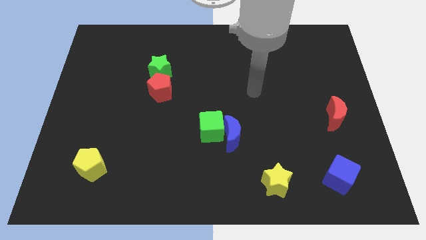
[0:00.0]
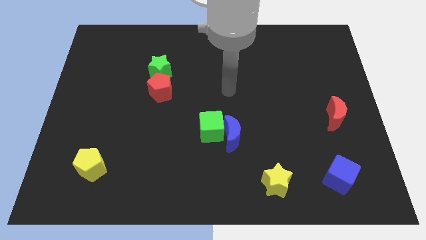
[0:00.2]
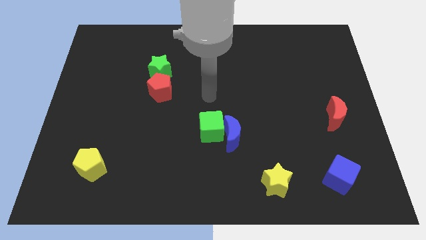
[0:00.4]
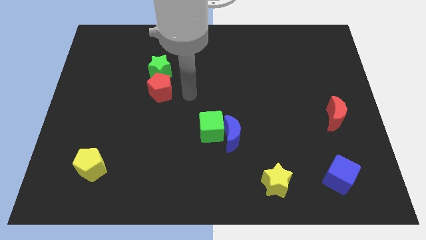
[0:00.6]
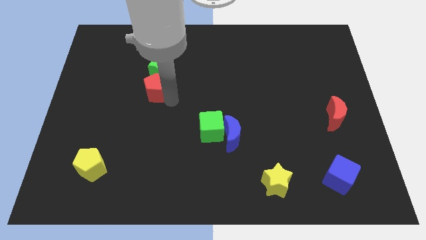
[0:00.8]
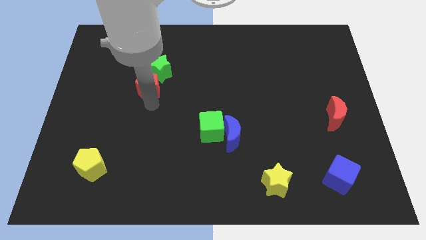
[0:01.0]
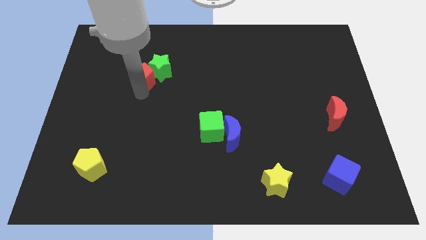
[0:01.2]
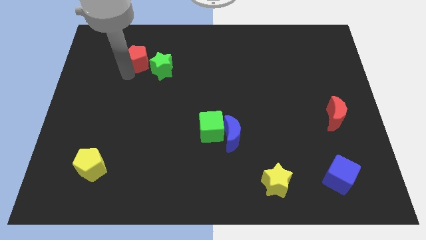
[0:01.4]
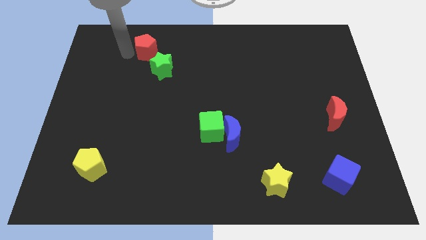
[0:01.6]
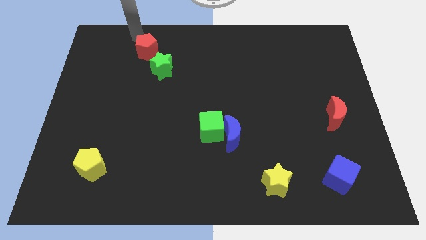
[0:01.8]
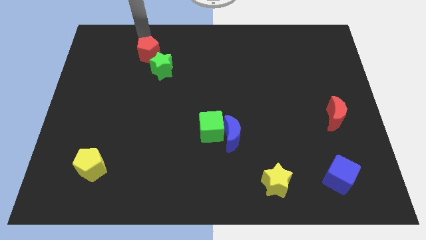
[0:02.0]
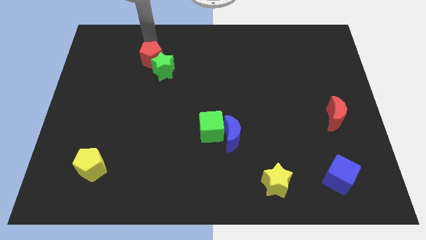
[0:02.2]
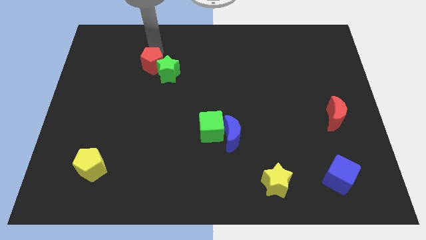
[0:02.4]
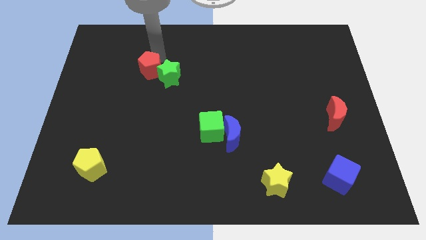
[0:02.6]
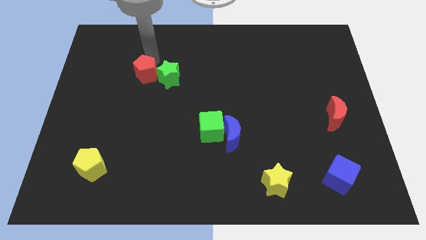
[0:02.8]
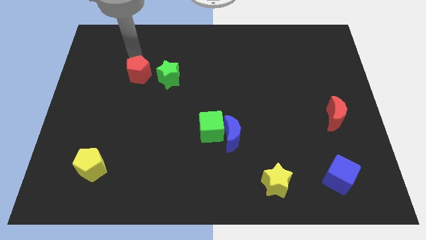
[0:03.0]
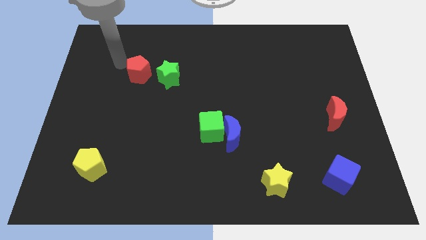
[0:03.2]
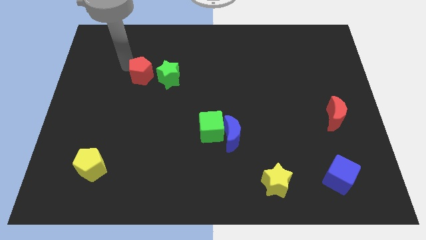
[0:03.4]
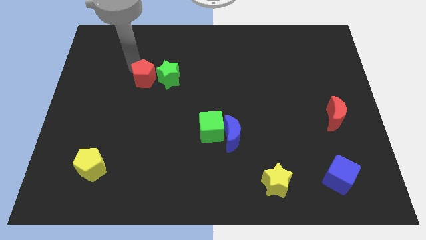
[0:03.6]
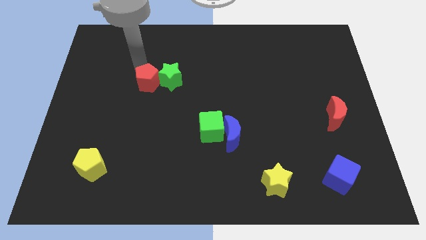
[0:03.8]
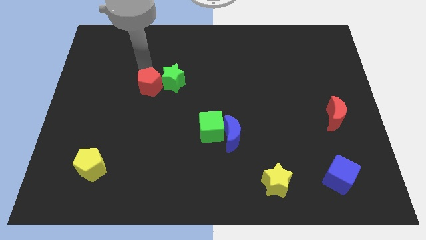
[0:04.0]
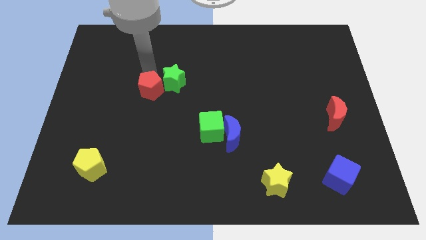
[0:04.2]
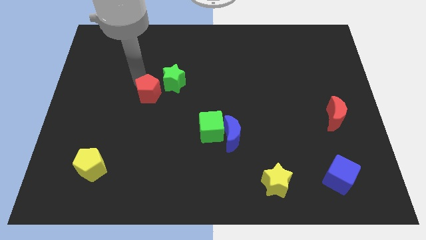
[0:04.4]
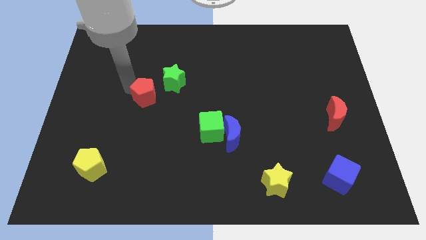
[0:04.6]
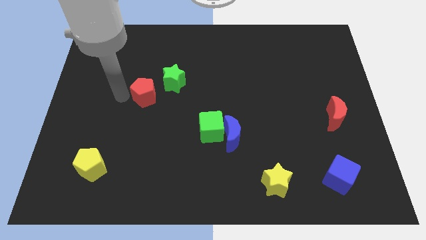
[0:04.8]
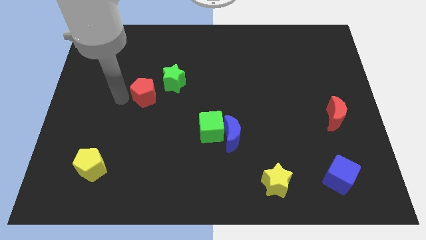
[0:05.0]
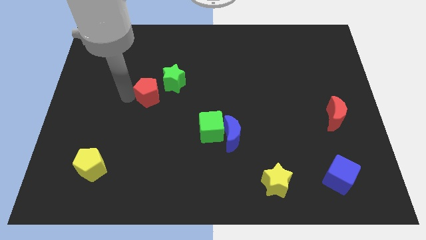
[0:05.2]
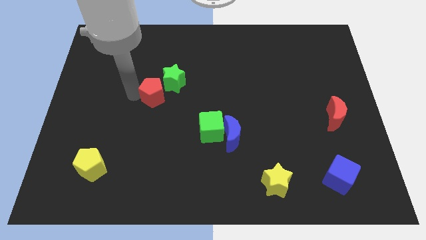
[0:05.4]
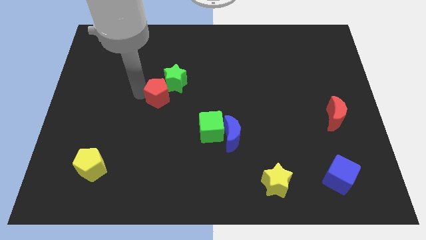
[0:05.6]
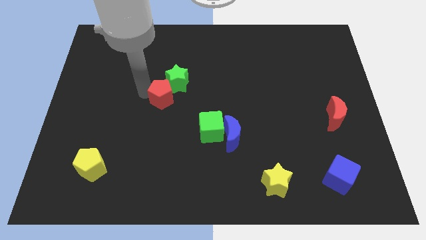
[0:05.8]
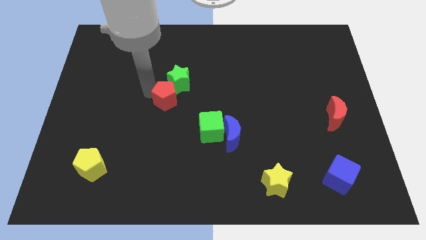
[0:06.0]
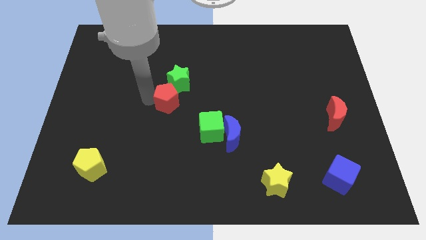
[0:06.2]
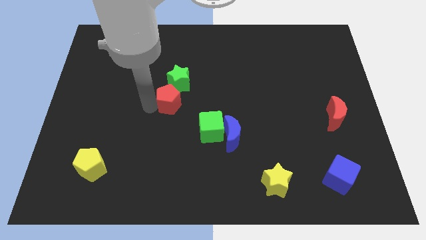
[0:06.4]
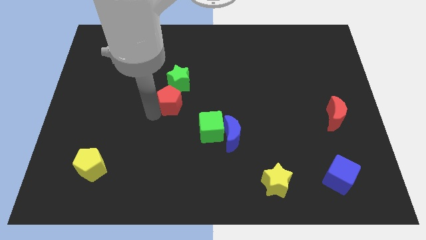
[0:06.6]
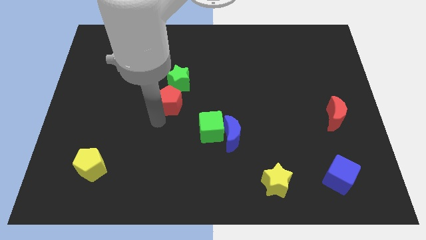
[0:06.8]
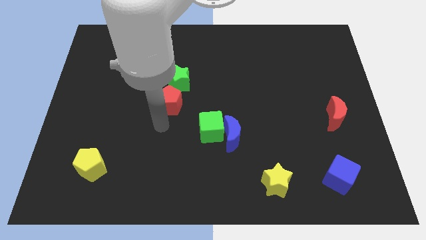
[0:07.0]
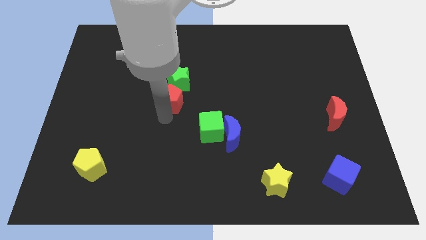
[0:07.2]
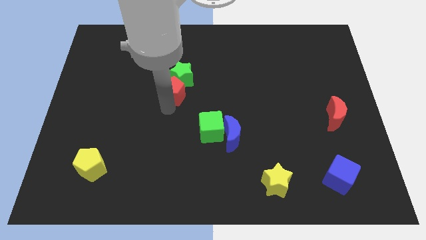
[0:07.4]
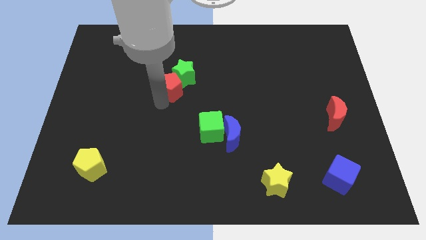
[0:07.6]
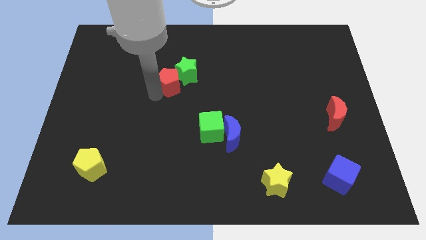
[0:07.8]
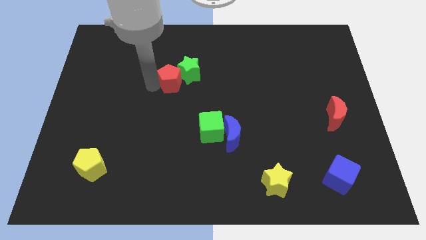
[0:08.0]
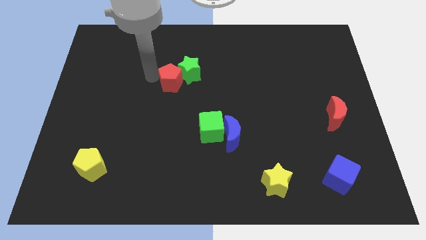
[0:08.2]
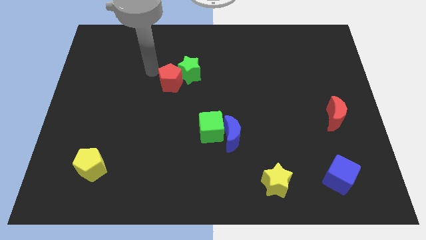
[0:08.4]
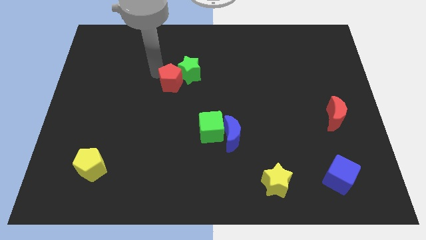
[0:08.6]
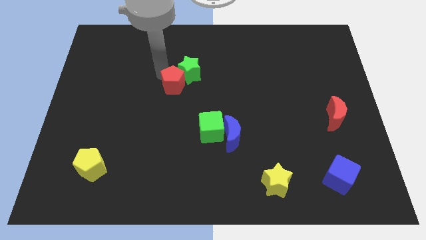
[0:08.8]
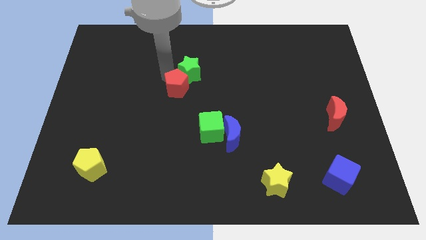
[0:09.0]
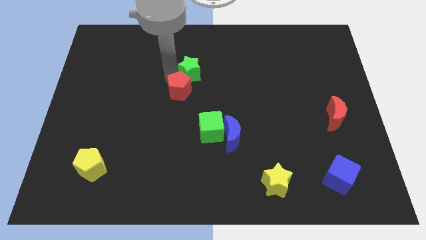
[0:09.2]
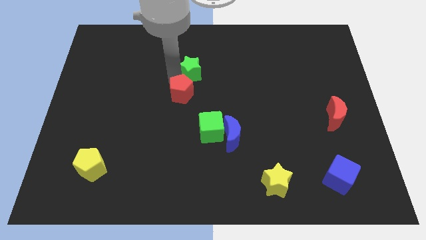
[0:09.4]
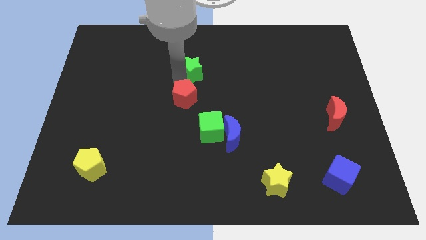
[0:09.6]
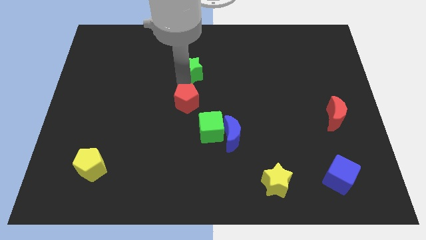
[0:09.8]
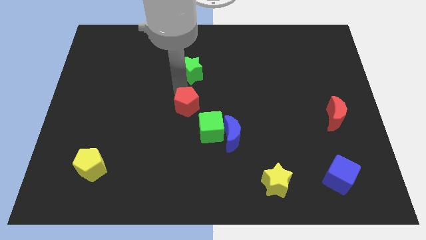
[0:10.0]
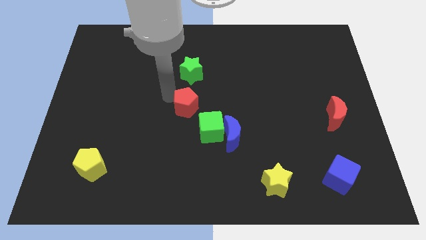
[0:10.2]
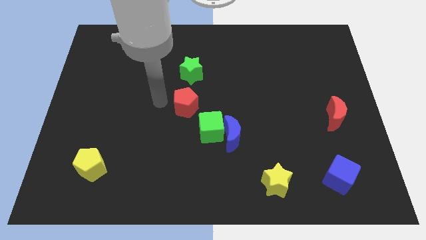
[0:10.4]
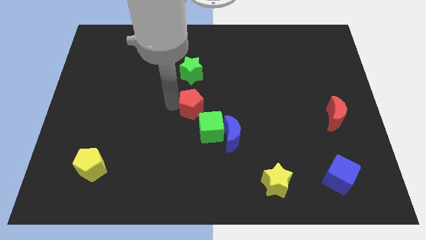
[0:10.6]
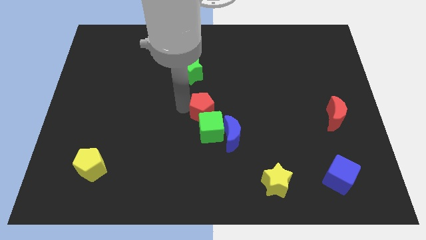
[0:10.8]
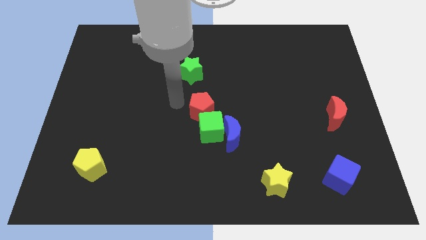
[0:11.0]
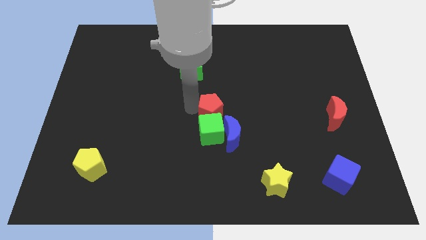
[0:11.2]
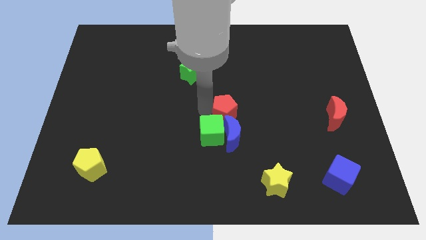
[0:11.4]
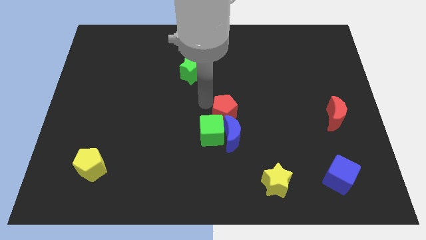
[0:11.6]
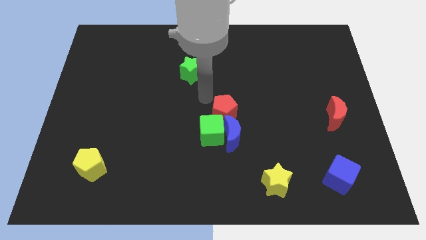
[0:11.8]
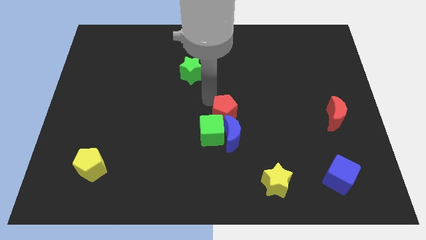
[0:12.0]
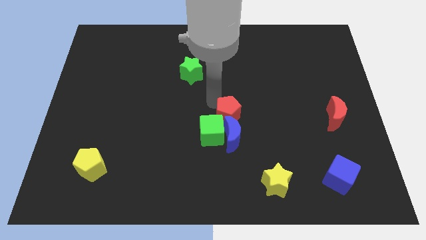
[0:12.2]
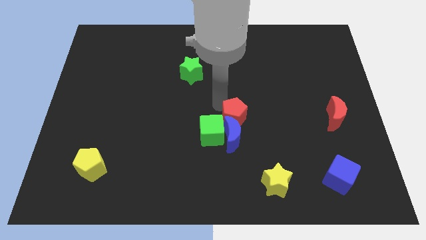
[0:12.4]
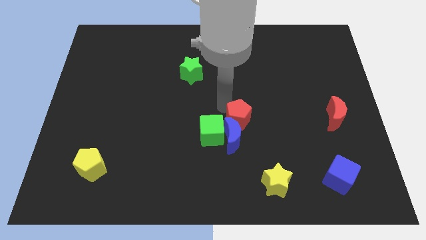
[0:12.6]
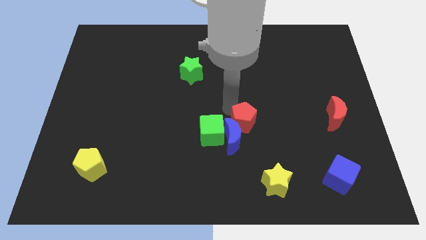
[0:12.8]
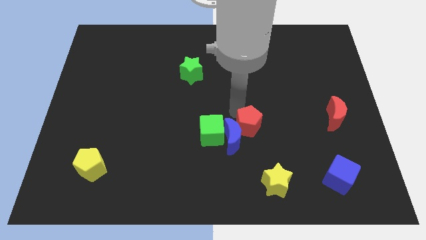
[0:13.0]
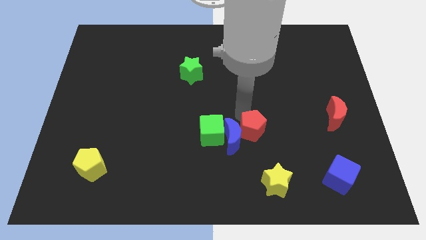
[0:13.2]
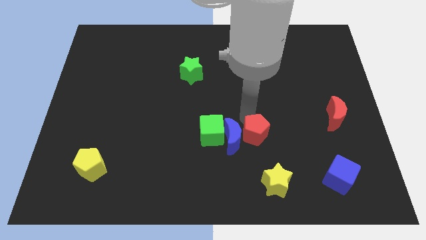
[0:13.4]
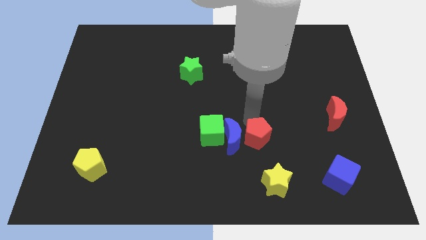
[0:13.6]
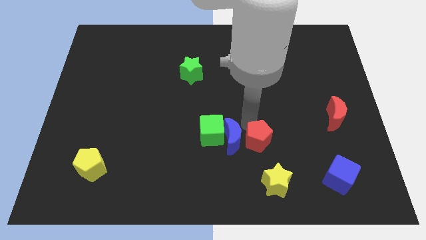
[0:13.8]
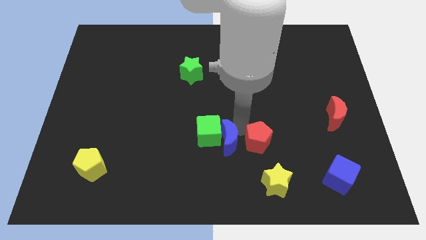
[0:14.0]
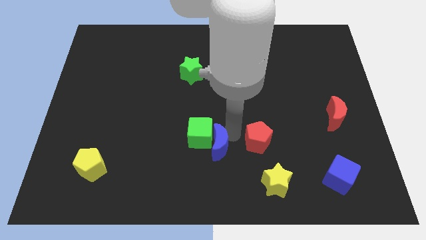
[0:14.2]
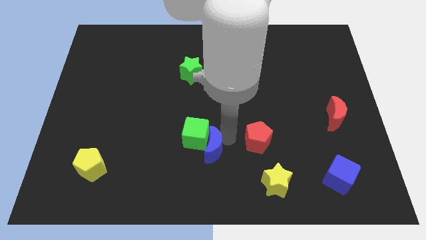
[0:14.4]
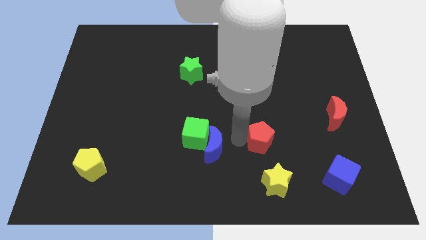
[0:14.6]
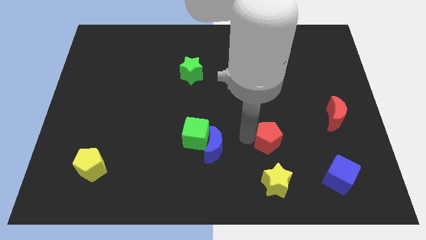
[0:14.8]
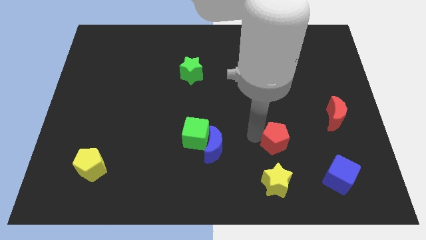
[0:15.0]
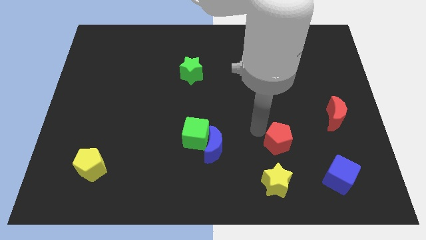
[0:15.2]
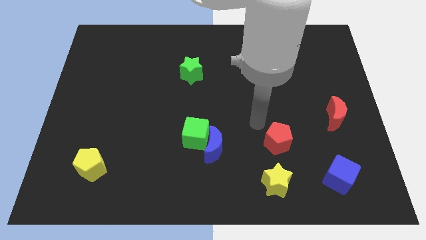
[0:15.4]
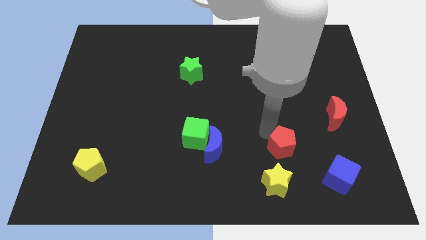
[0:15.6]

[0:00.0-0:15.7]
slide the red pentagon diagonally up and to the right of the yellow star
